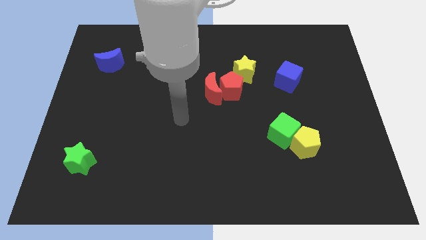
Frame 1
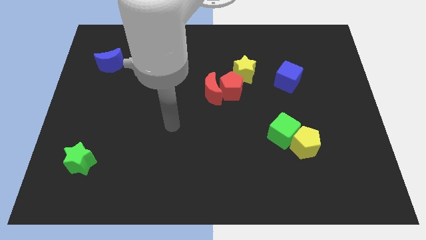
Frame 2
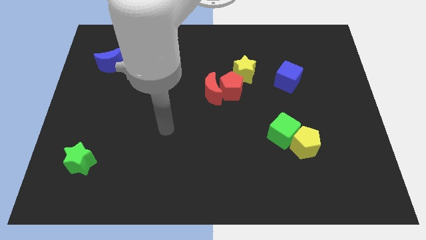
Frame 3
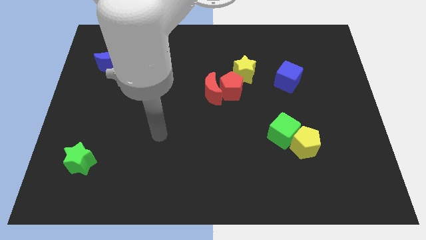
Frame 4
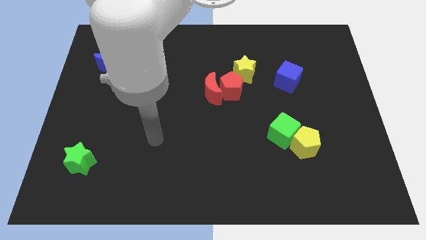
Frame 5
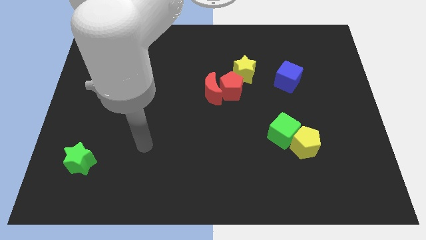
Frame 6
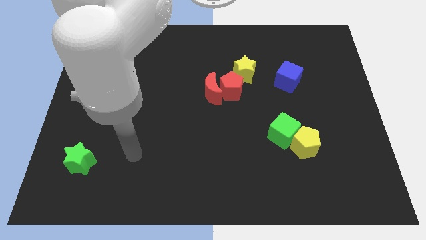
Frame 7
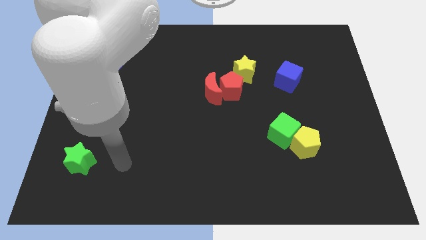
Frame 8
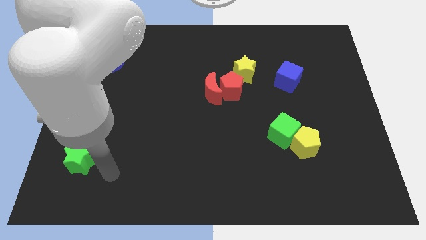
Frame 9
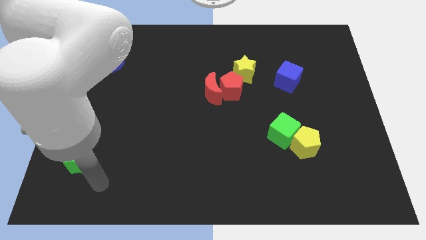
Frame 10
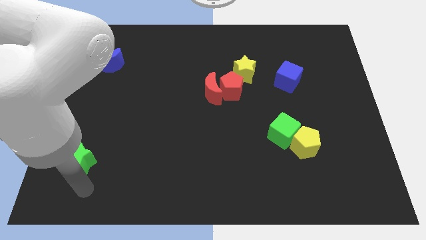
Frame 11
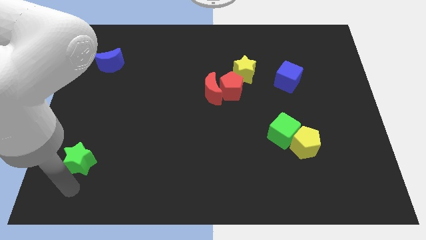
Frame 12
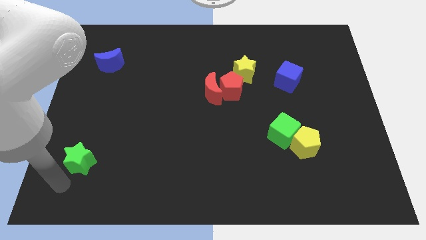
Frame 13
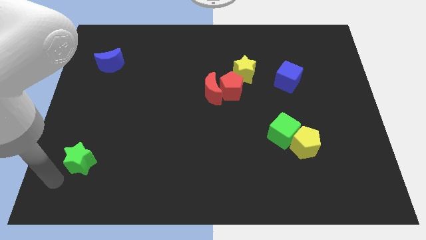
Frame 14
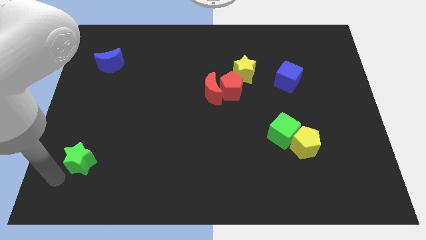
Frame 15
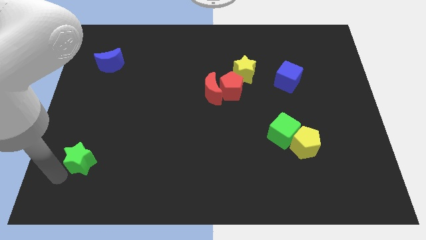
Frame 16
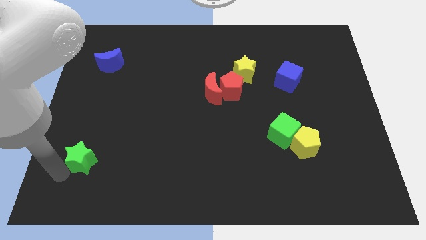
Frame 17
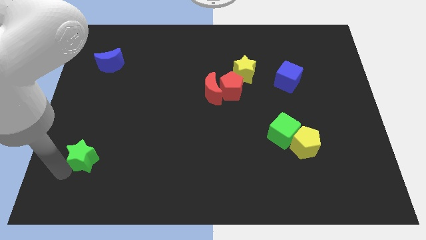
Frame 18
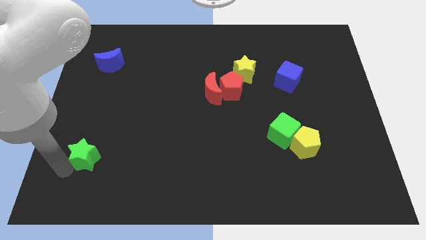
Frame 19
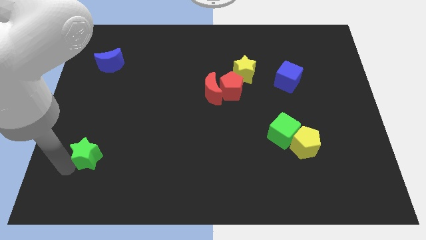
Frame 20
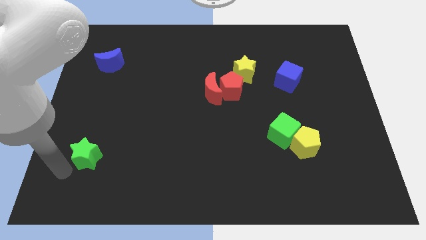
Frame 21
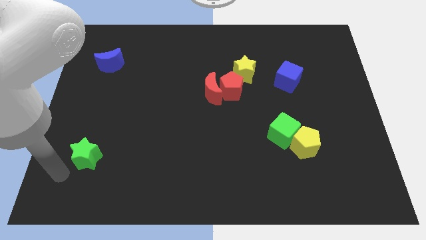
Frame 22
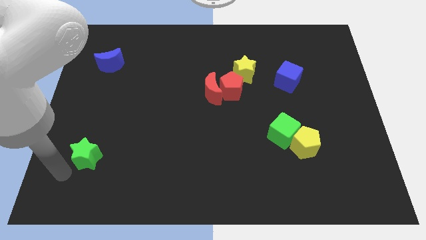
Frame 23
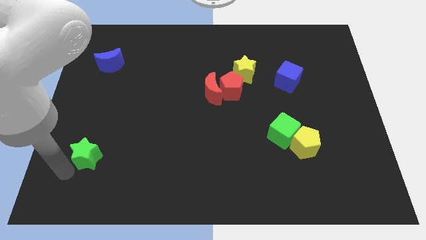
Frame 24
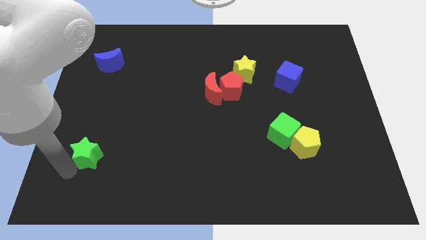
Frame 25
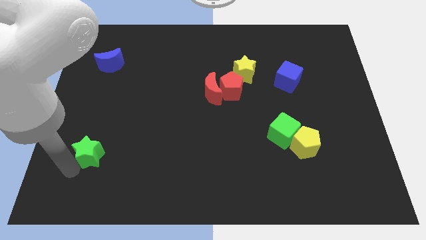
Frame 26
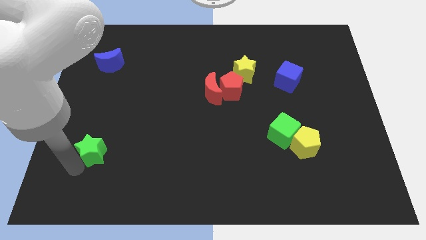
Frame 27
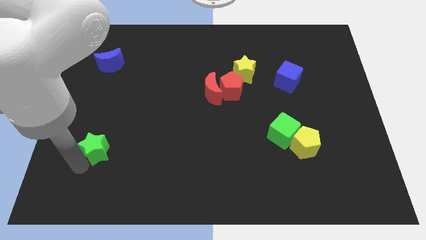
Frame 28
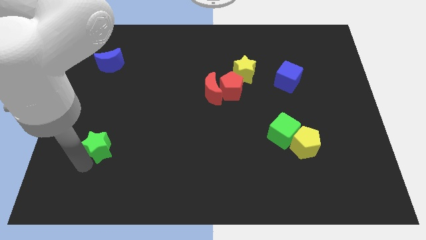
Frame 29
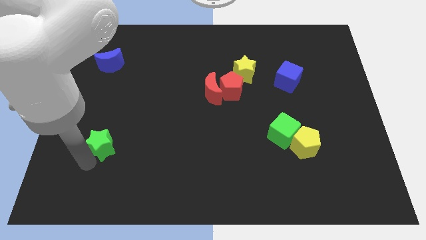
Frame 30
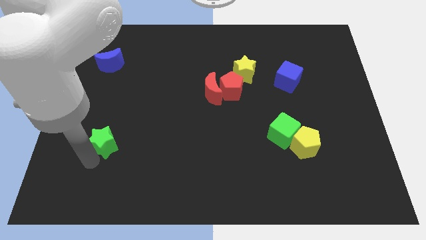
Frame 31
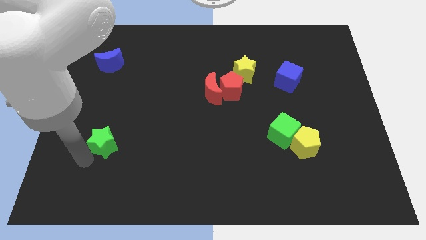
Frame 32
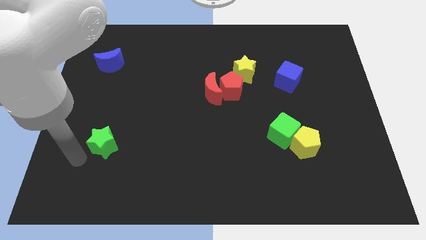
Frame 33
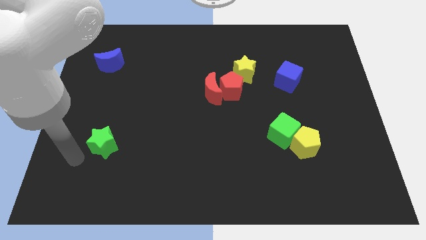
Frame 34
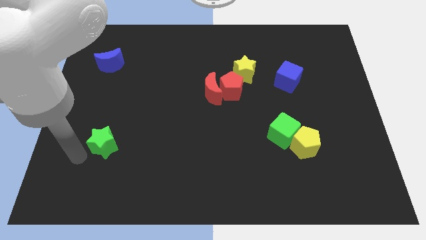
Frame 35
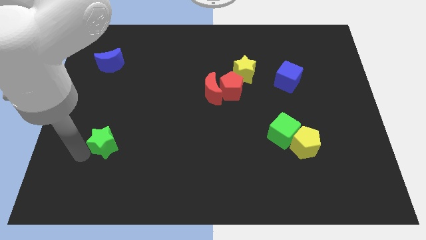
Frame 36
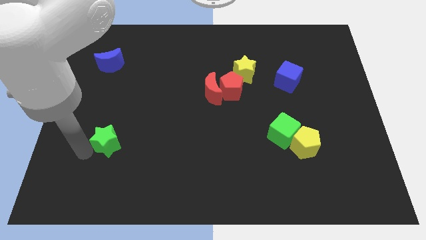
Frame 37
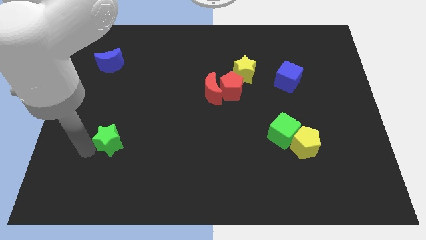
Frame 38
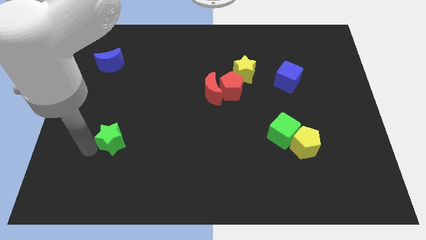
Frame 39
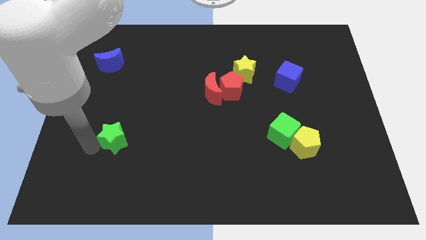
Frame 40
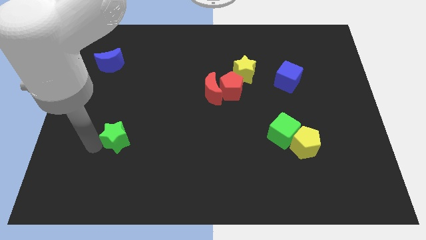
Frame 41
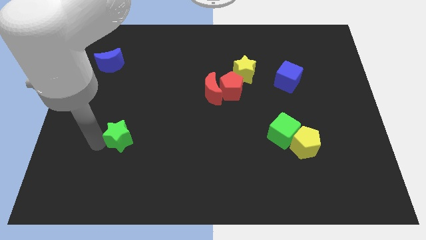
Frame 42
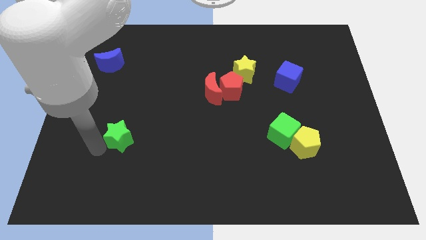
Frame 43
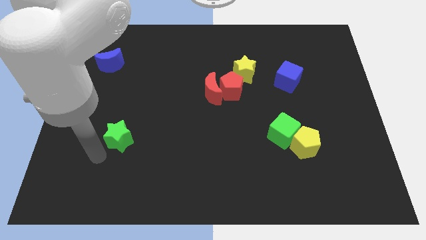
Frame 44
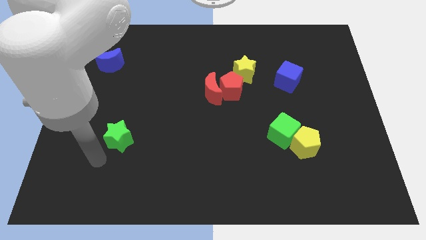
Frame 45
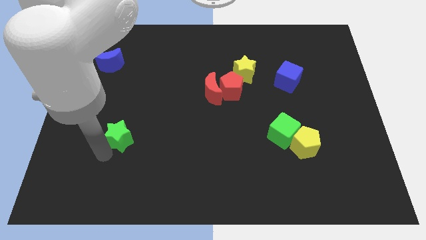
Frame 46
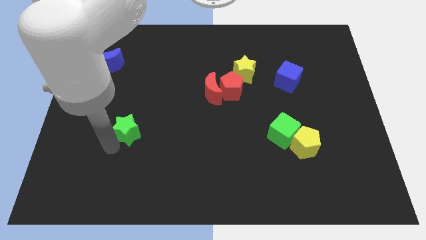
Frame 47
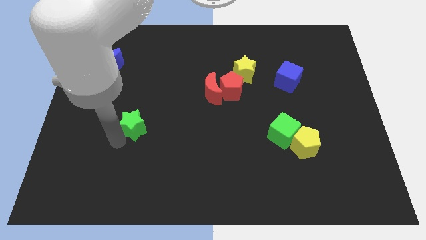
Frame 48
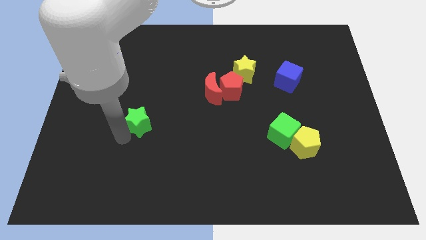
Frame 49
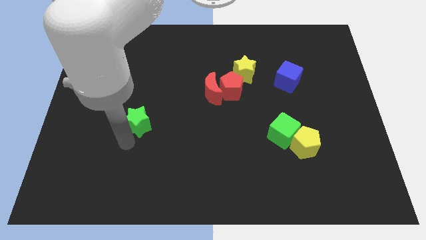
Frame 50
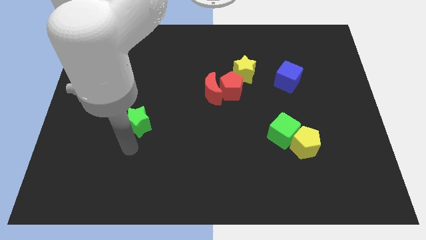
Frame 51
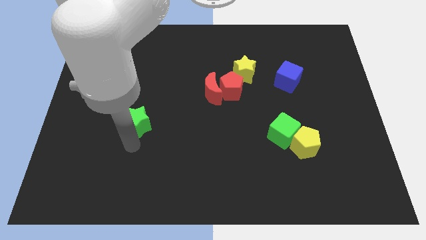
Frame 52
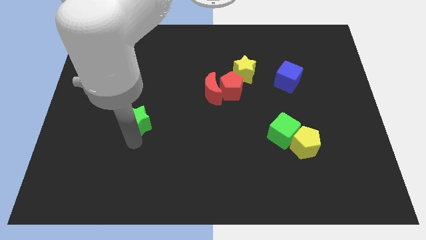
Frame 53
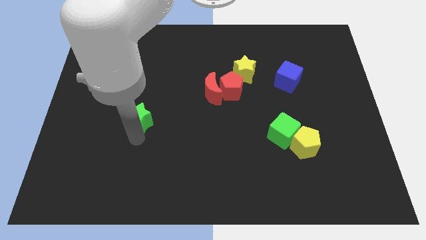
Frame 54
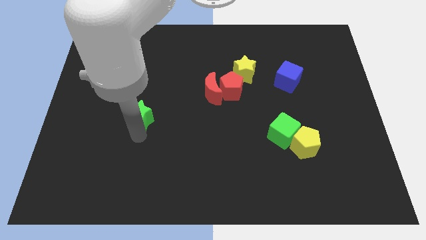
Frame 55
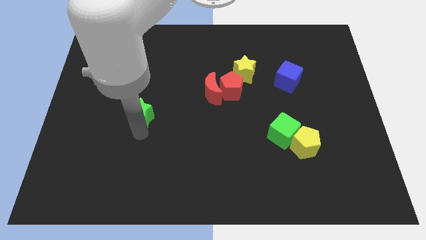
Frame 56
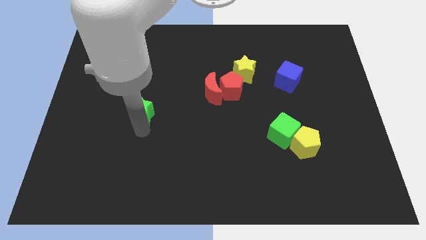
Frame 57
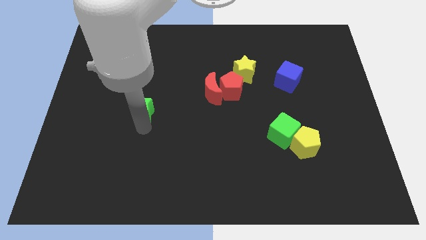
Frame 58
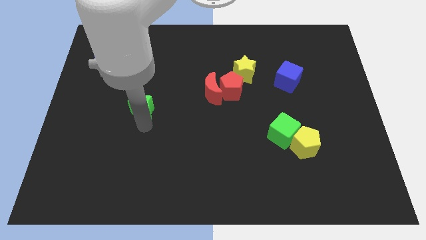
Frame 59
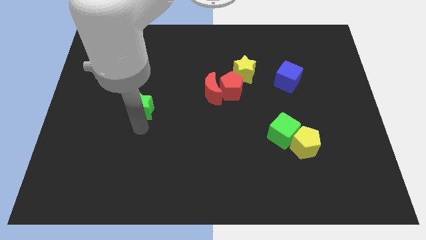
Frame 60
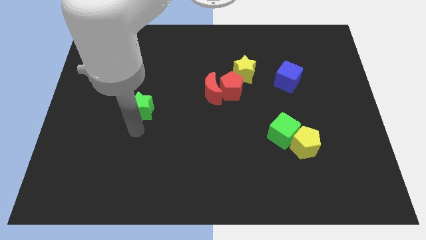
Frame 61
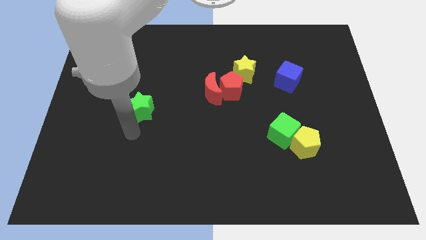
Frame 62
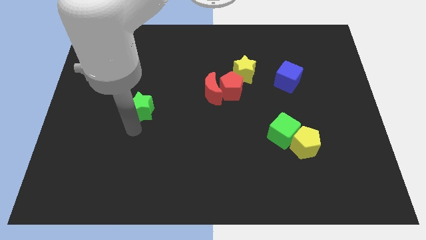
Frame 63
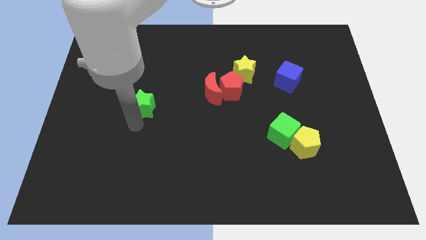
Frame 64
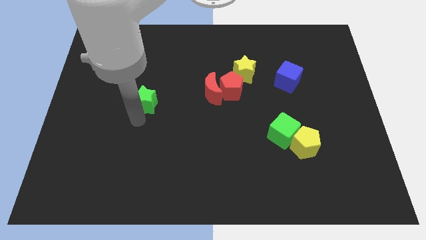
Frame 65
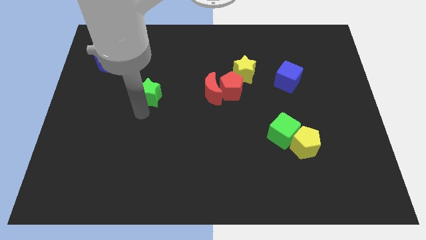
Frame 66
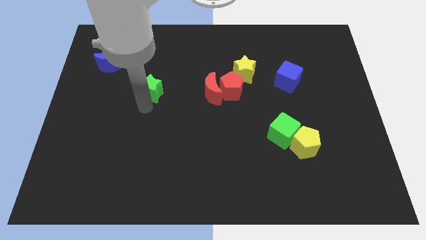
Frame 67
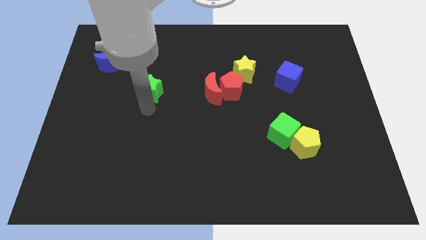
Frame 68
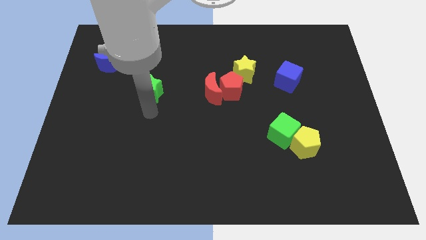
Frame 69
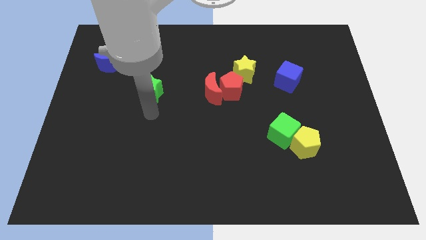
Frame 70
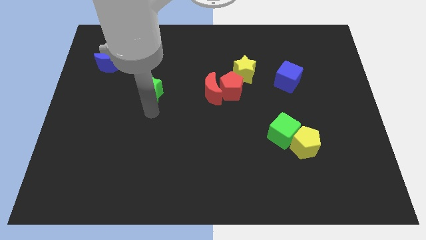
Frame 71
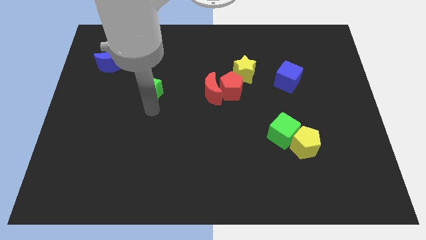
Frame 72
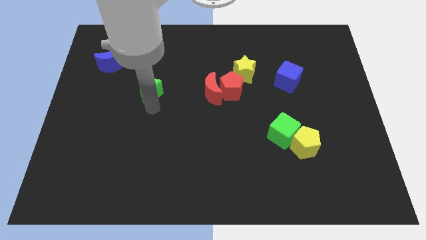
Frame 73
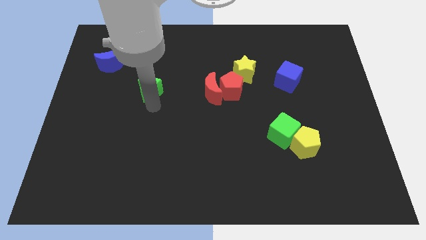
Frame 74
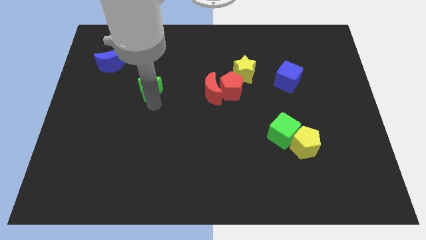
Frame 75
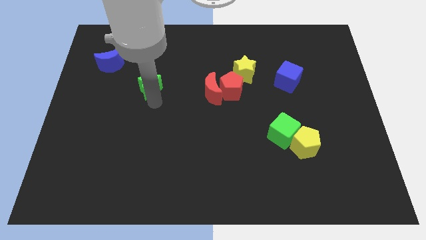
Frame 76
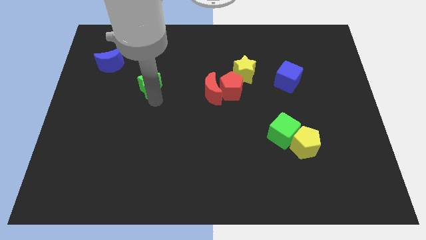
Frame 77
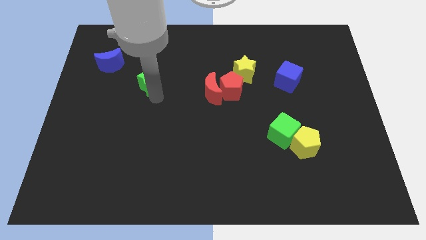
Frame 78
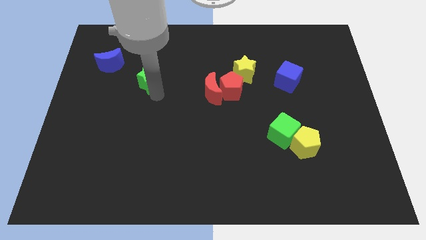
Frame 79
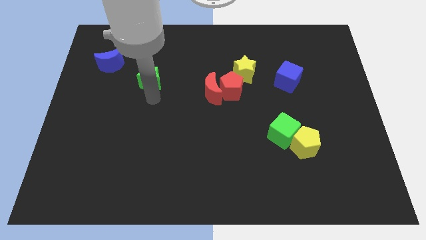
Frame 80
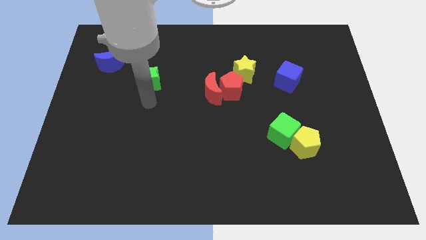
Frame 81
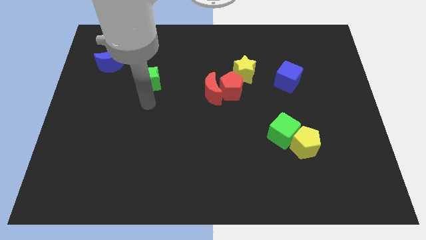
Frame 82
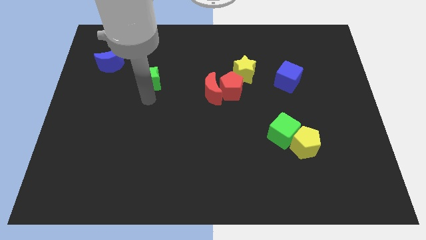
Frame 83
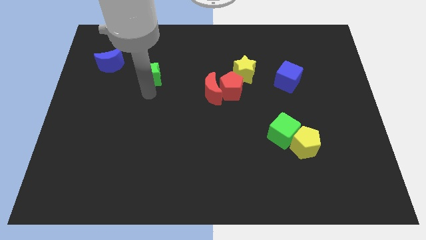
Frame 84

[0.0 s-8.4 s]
slide the green star right of the blue moon
